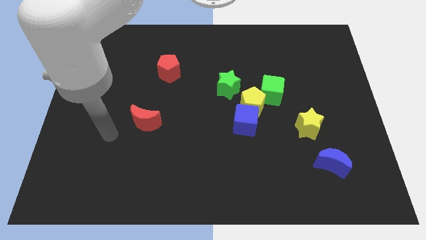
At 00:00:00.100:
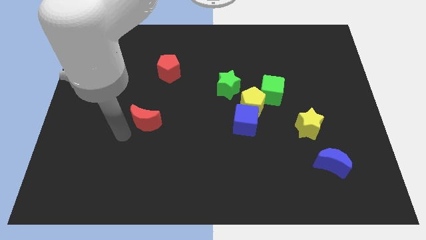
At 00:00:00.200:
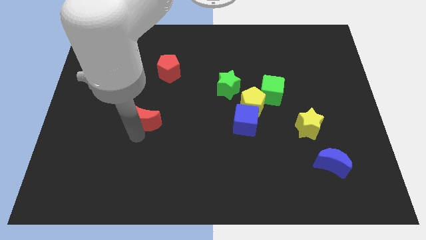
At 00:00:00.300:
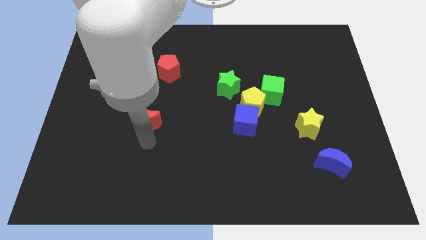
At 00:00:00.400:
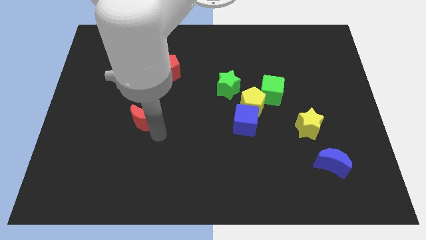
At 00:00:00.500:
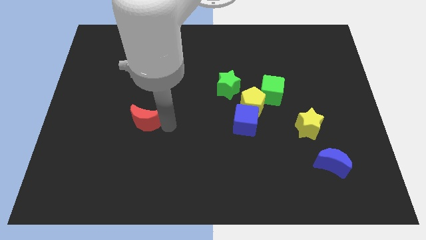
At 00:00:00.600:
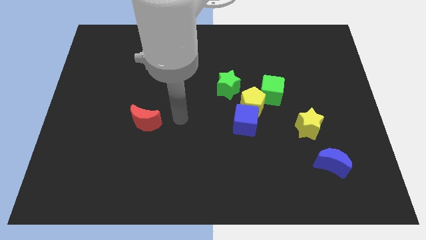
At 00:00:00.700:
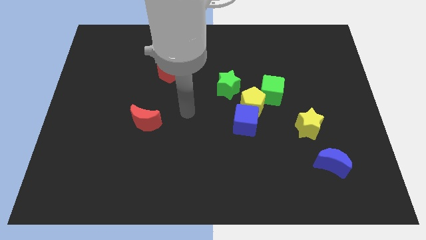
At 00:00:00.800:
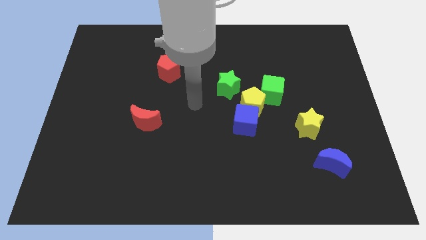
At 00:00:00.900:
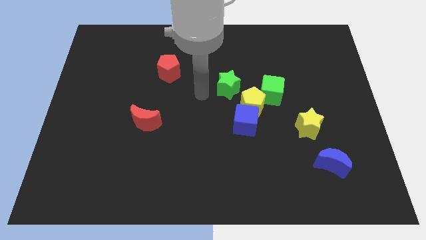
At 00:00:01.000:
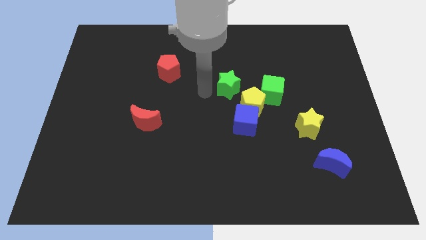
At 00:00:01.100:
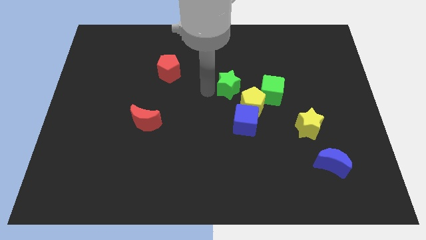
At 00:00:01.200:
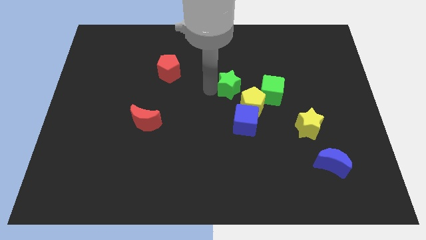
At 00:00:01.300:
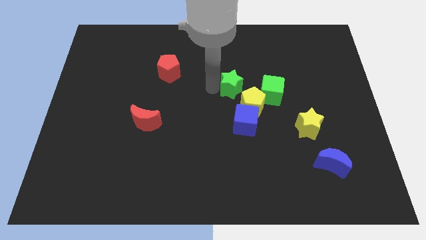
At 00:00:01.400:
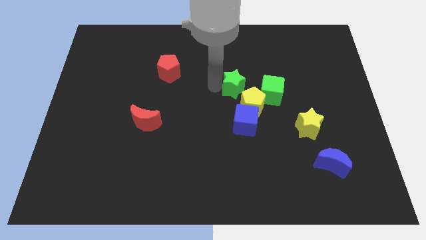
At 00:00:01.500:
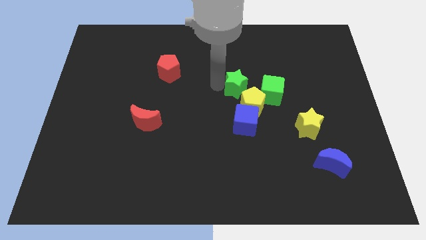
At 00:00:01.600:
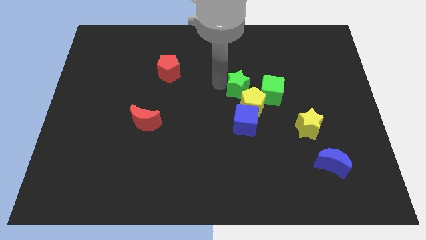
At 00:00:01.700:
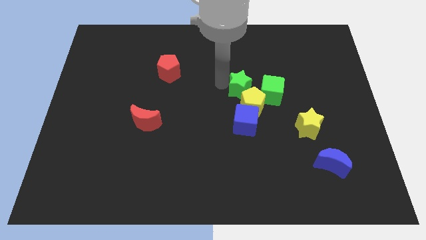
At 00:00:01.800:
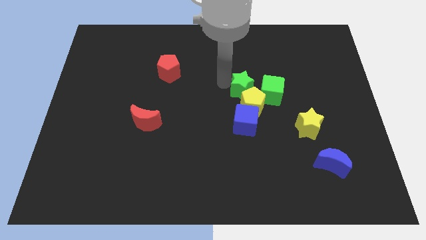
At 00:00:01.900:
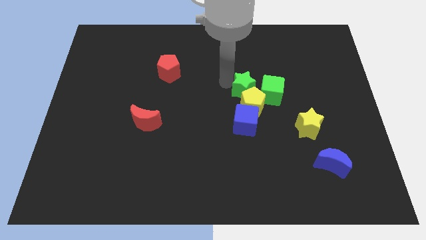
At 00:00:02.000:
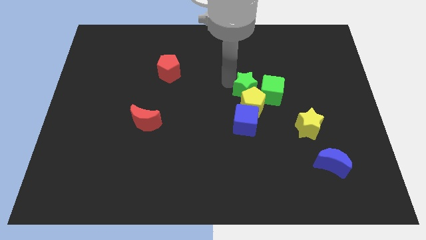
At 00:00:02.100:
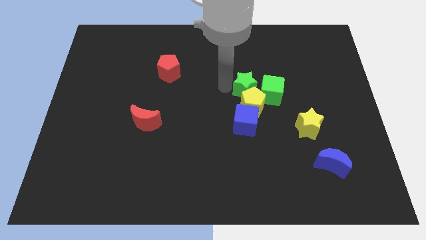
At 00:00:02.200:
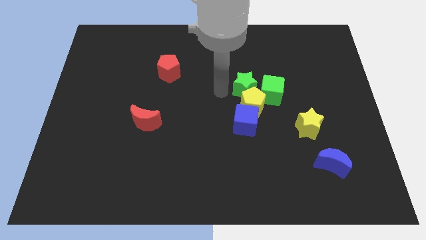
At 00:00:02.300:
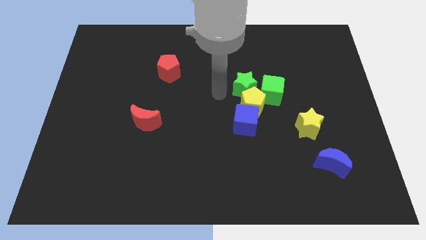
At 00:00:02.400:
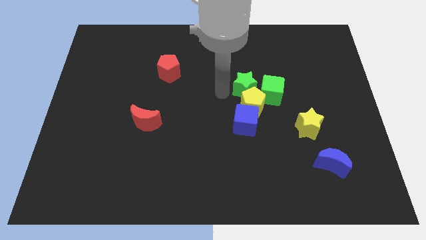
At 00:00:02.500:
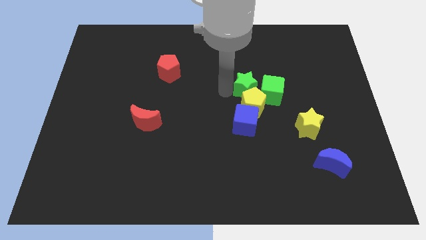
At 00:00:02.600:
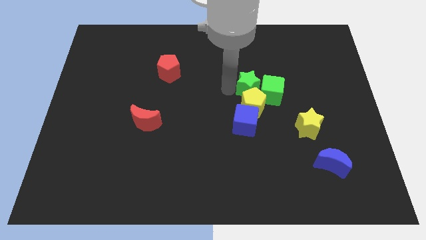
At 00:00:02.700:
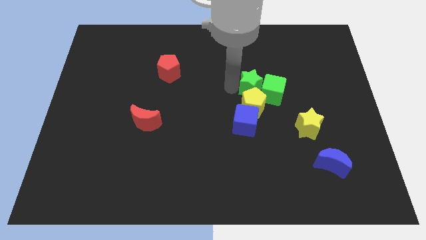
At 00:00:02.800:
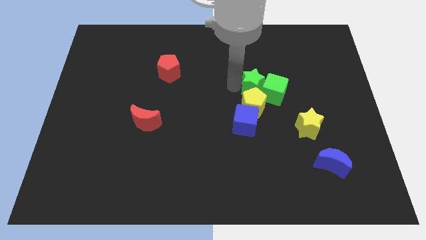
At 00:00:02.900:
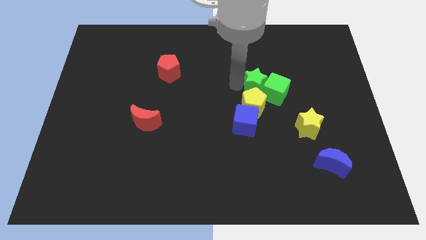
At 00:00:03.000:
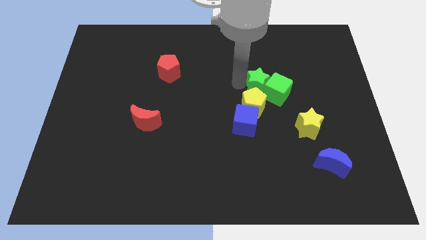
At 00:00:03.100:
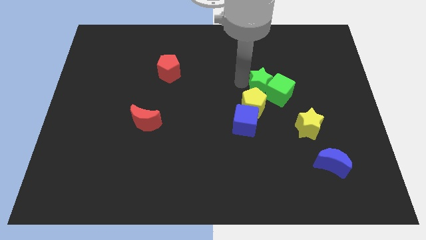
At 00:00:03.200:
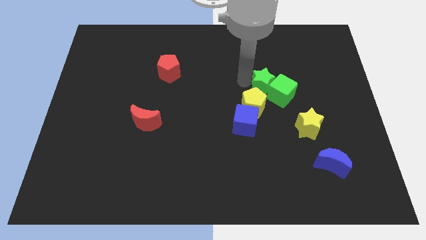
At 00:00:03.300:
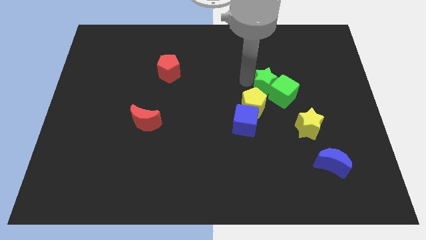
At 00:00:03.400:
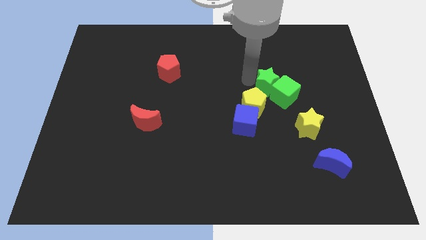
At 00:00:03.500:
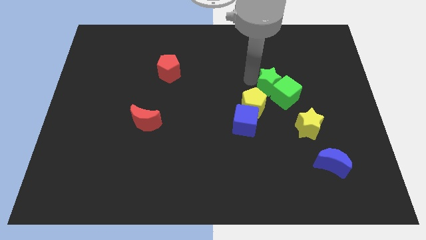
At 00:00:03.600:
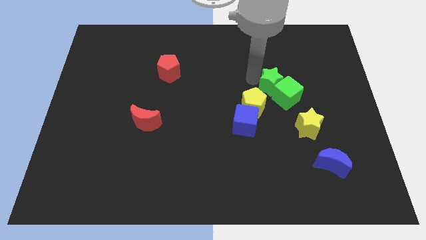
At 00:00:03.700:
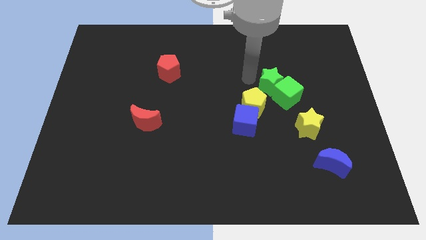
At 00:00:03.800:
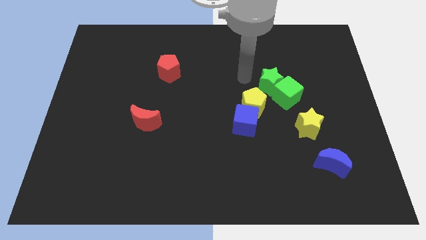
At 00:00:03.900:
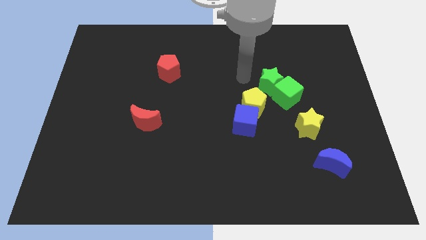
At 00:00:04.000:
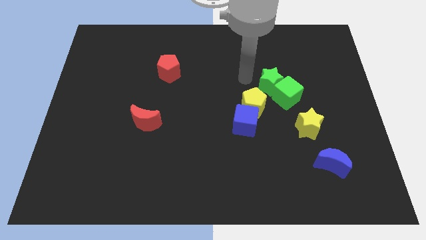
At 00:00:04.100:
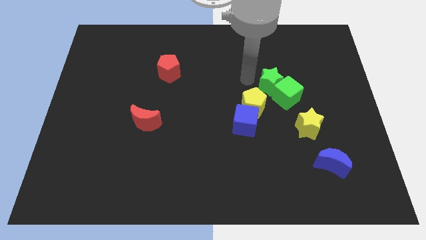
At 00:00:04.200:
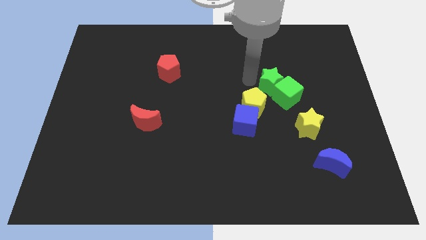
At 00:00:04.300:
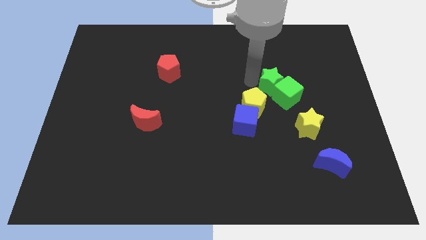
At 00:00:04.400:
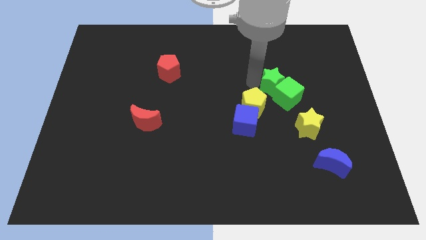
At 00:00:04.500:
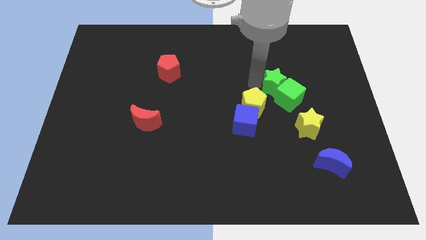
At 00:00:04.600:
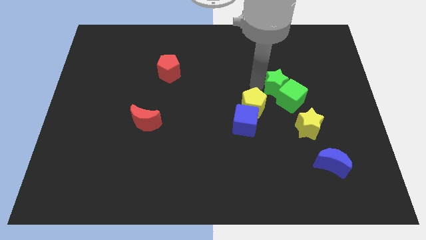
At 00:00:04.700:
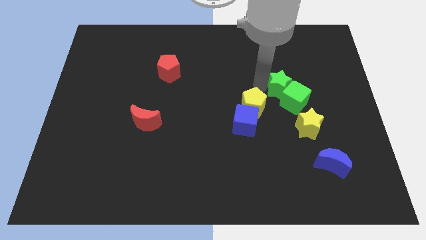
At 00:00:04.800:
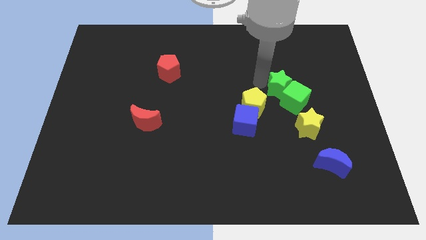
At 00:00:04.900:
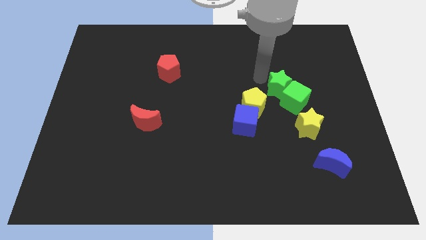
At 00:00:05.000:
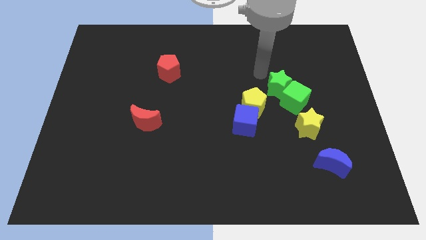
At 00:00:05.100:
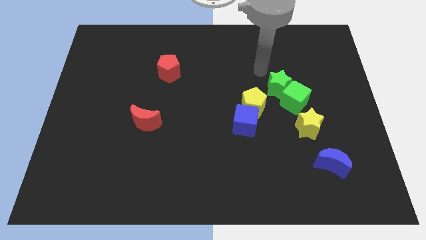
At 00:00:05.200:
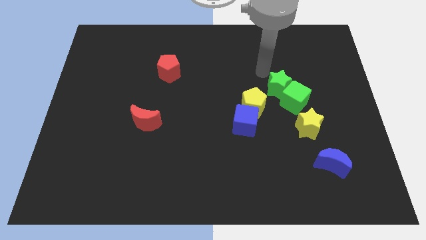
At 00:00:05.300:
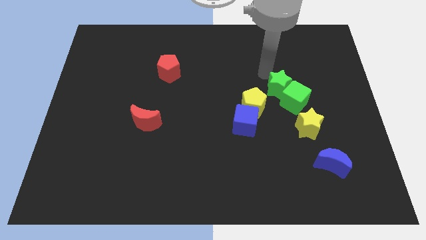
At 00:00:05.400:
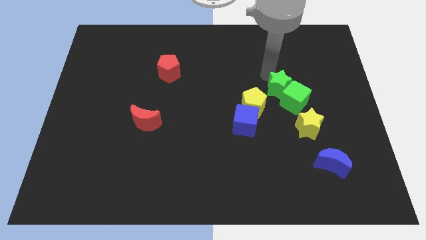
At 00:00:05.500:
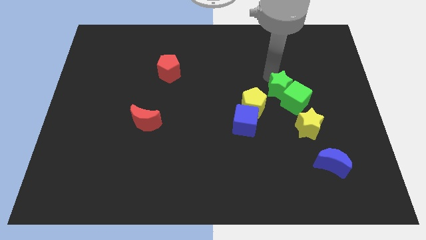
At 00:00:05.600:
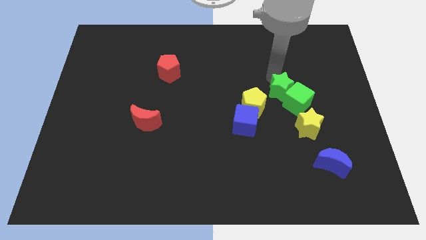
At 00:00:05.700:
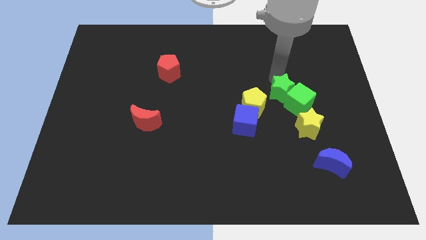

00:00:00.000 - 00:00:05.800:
move the green star to the right of the yellow pentagon

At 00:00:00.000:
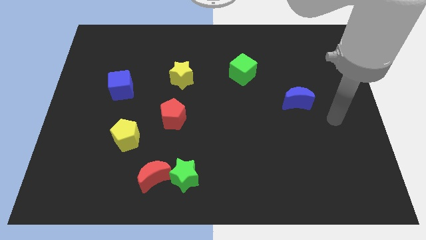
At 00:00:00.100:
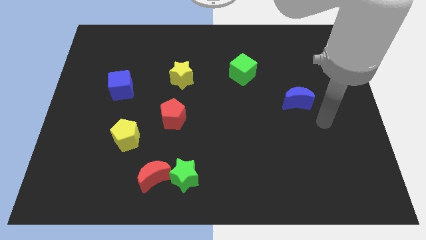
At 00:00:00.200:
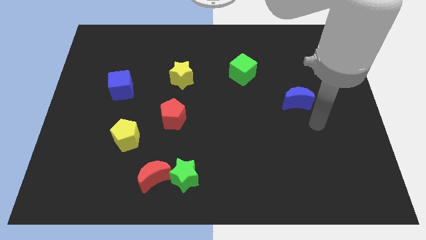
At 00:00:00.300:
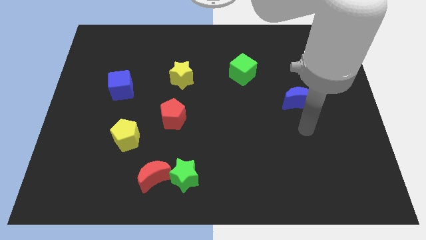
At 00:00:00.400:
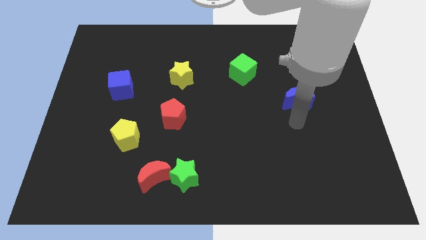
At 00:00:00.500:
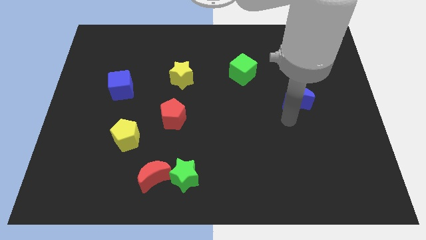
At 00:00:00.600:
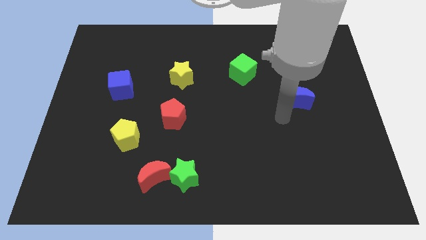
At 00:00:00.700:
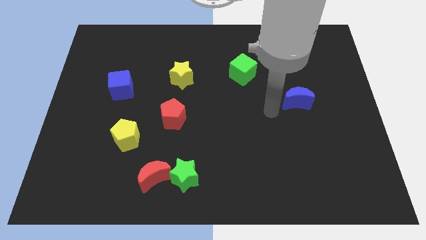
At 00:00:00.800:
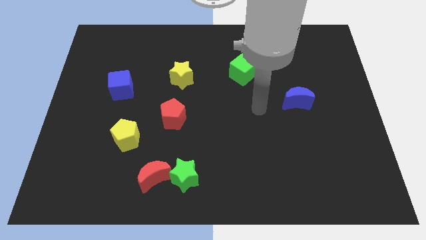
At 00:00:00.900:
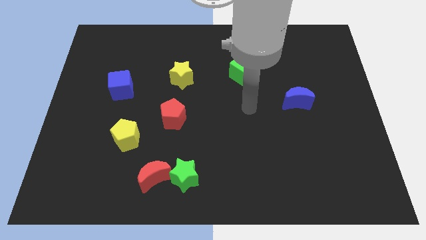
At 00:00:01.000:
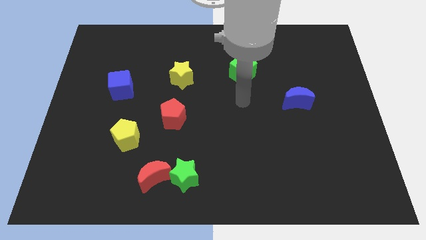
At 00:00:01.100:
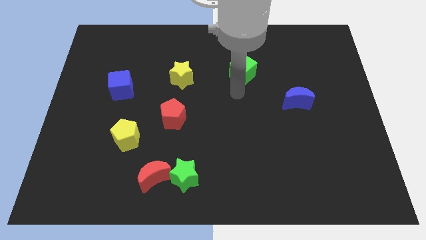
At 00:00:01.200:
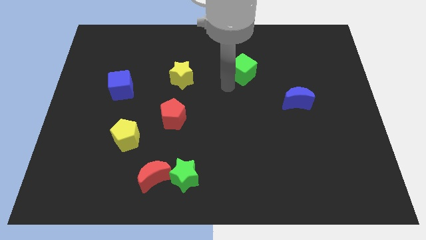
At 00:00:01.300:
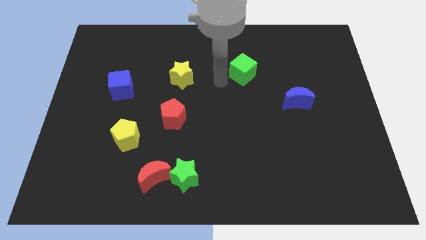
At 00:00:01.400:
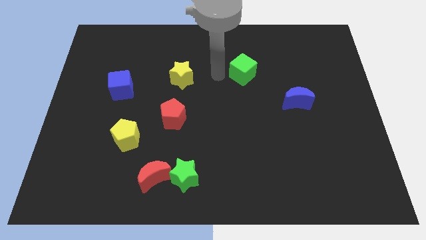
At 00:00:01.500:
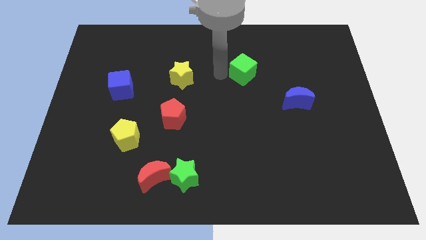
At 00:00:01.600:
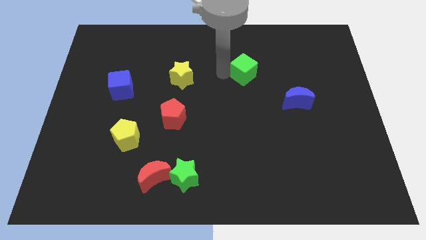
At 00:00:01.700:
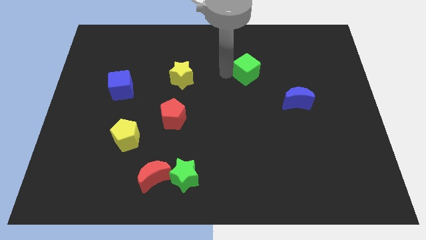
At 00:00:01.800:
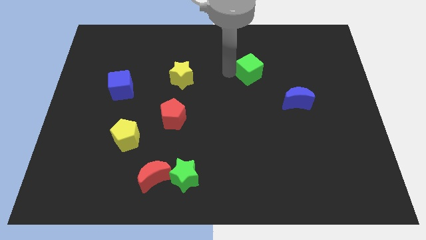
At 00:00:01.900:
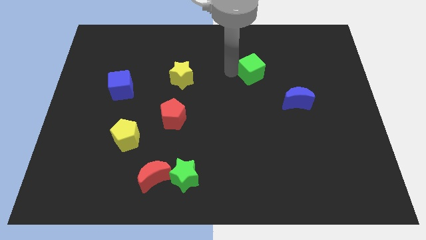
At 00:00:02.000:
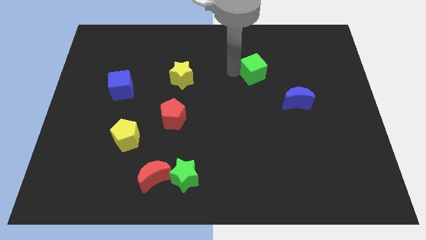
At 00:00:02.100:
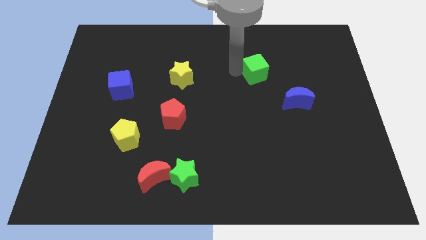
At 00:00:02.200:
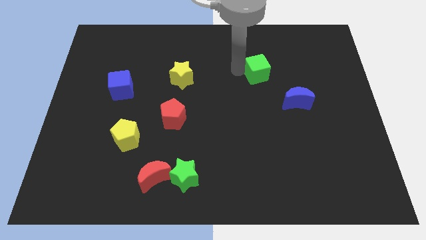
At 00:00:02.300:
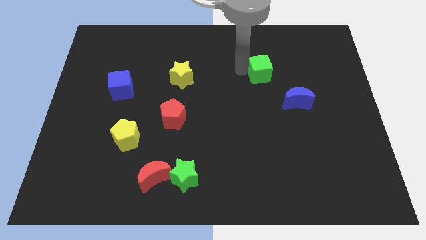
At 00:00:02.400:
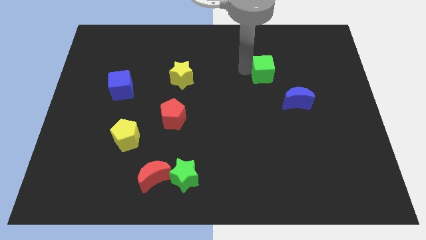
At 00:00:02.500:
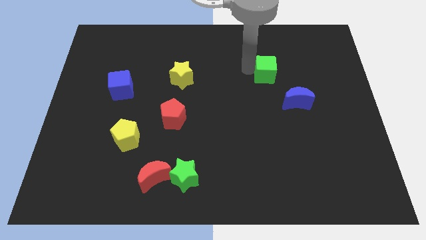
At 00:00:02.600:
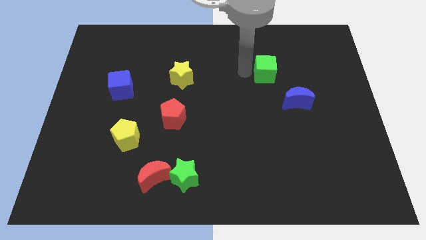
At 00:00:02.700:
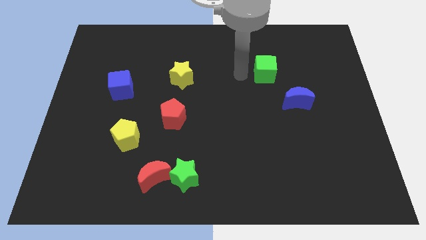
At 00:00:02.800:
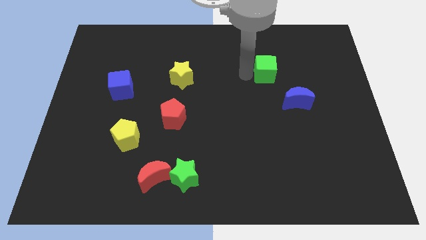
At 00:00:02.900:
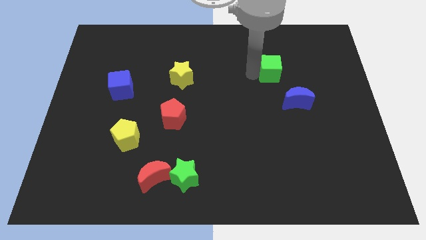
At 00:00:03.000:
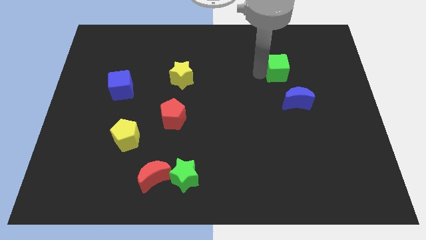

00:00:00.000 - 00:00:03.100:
push the green cube to the top side of the blue moon
